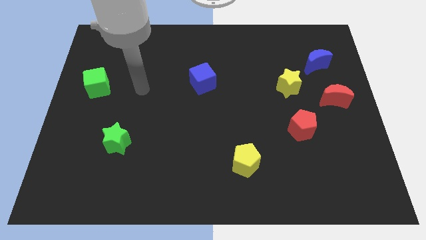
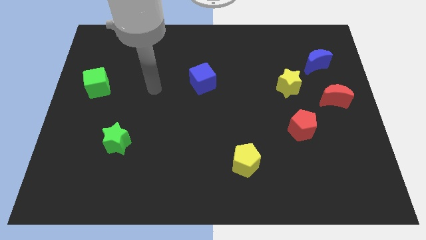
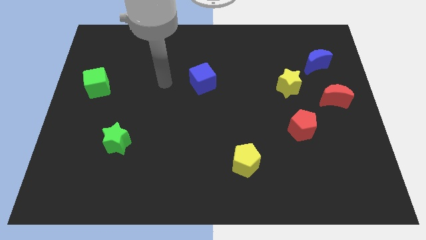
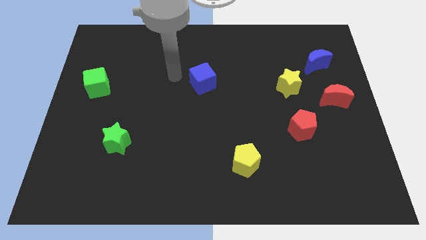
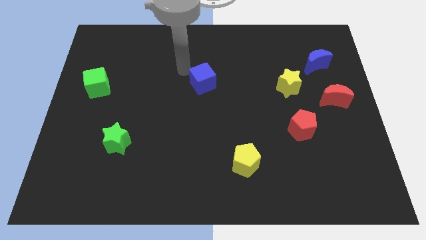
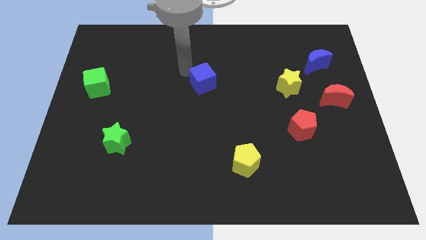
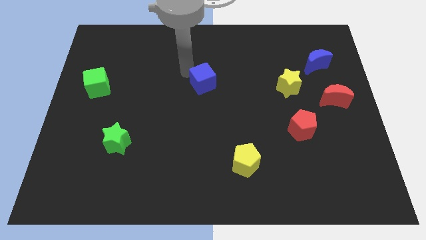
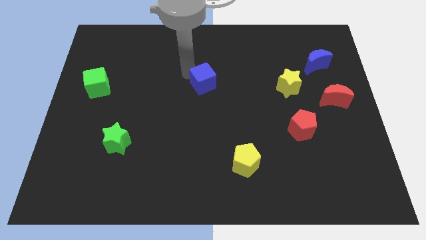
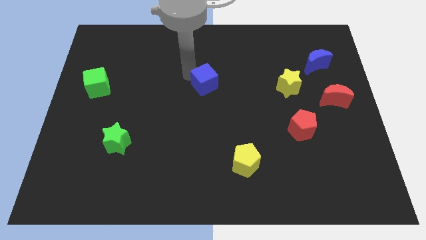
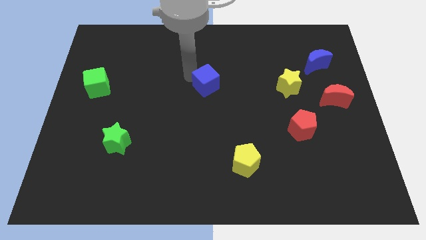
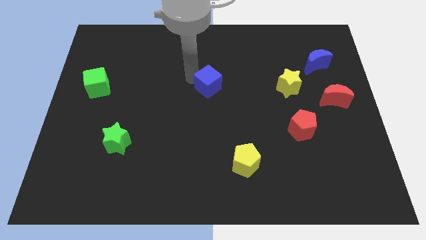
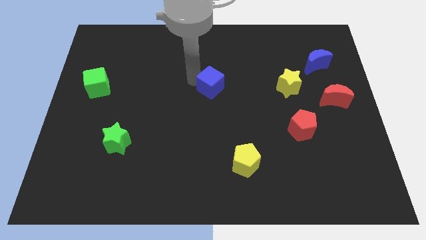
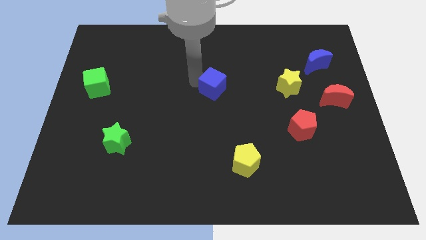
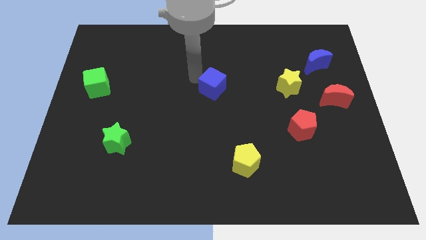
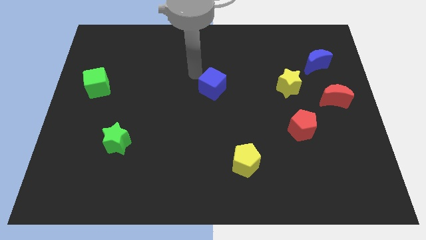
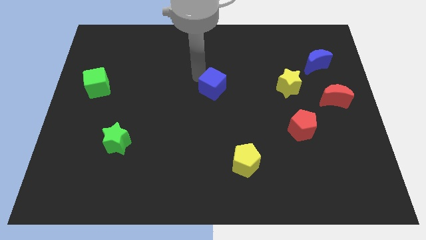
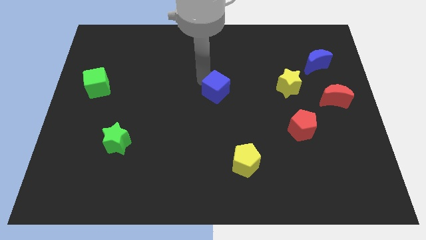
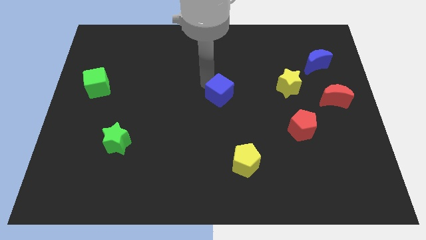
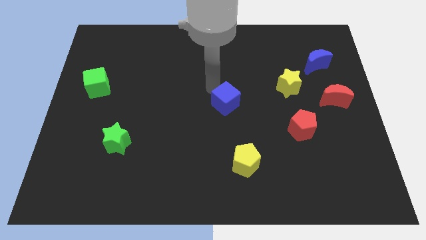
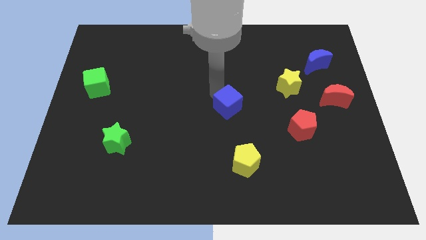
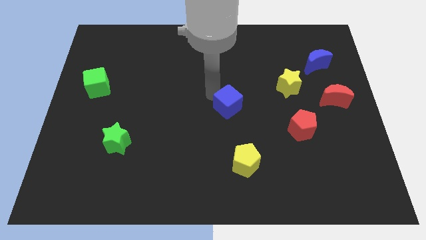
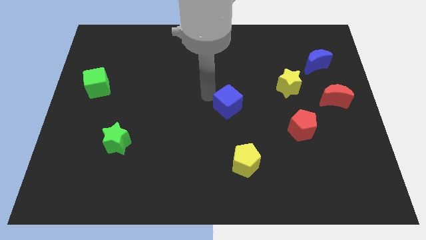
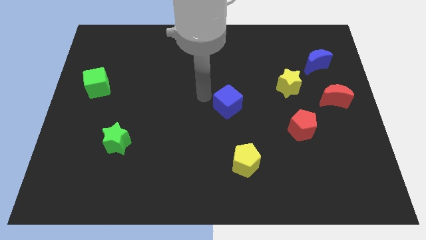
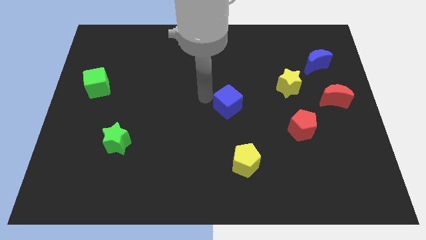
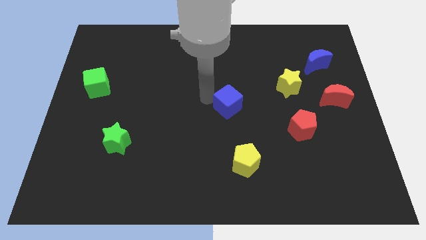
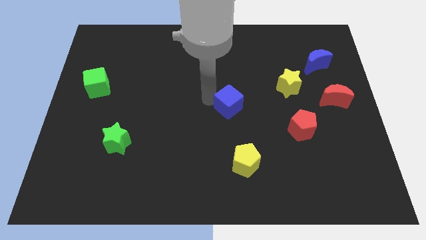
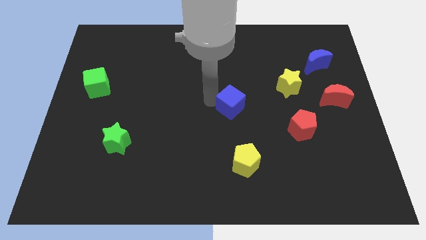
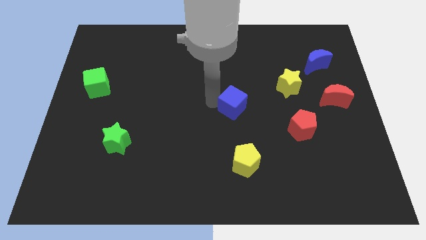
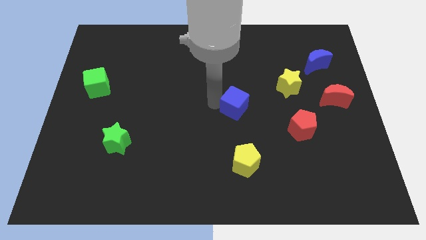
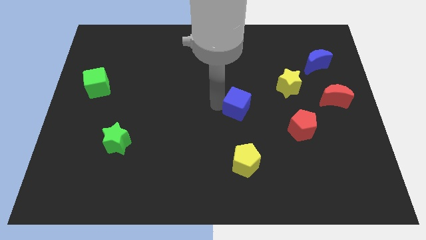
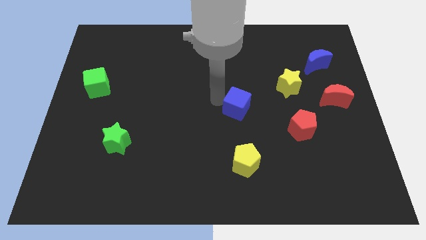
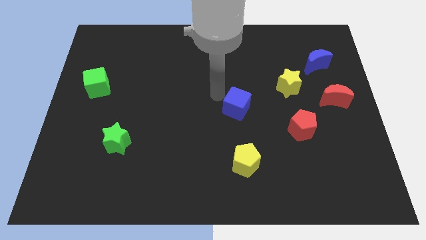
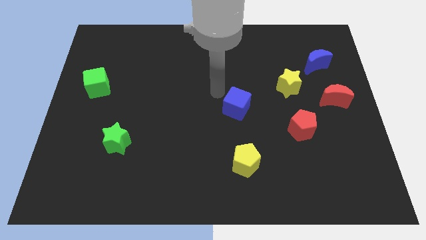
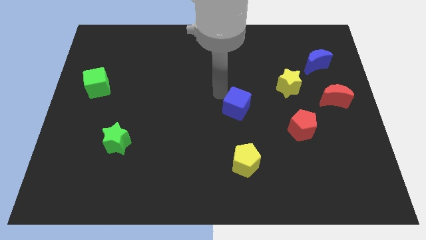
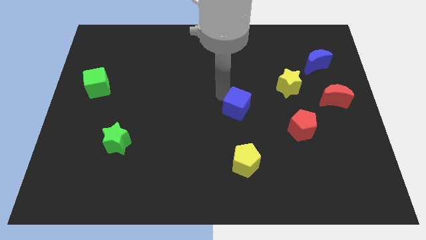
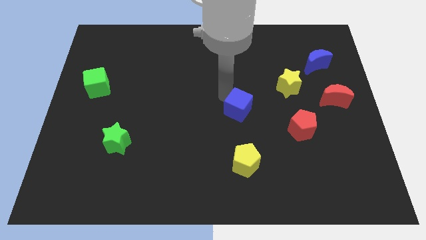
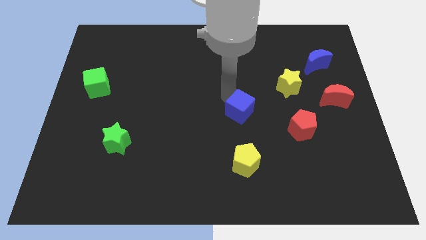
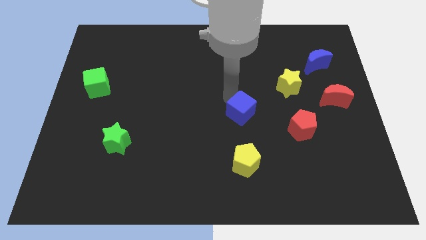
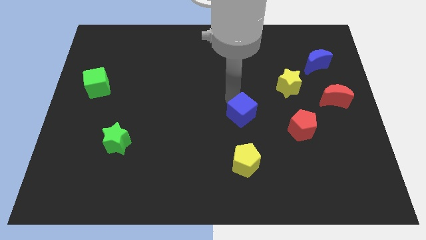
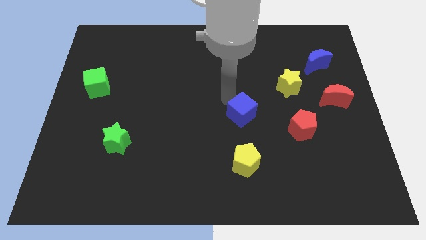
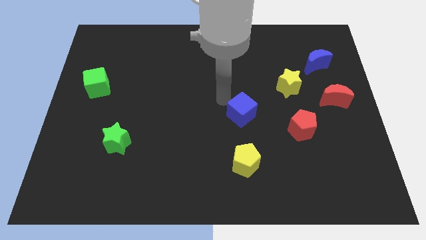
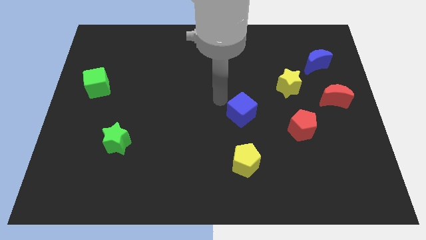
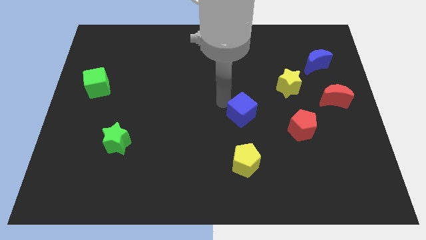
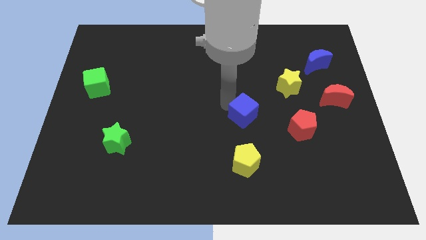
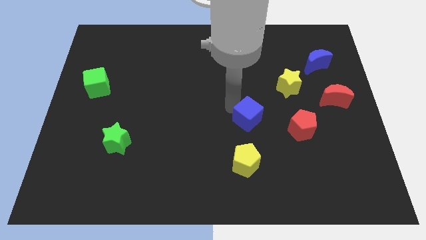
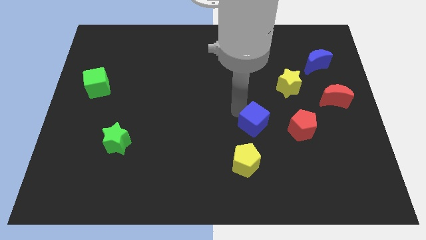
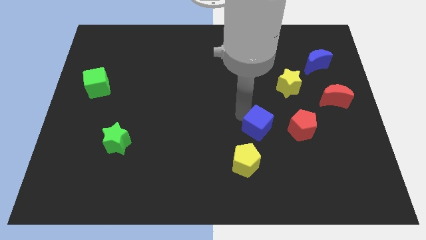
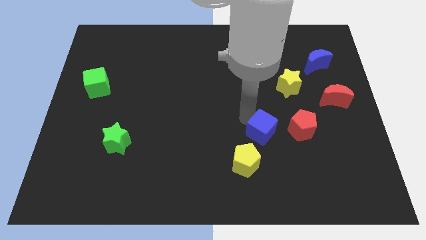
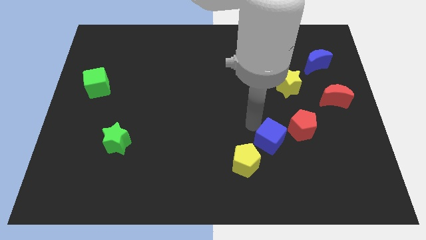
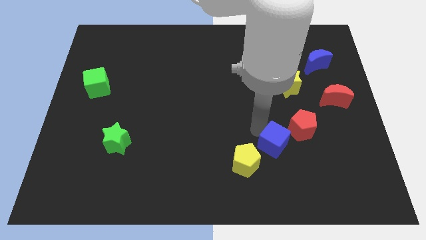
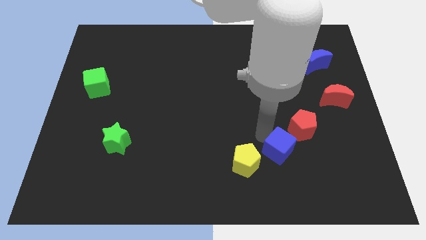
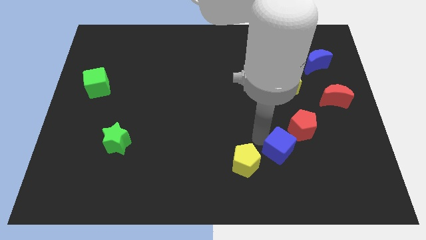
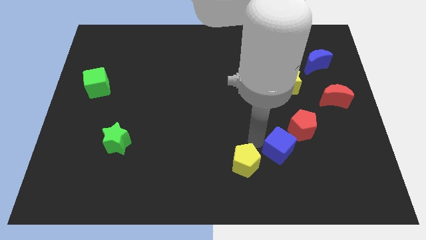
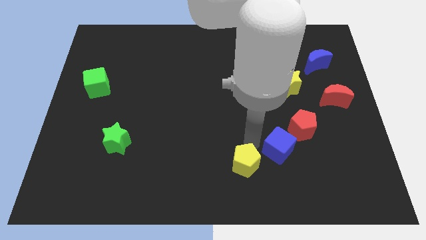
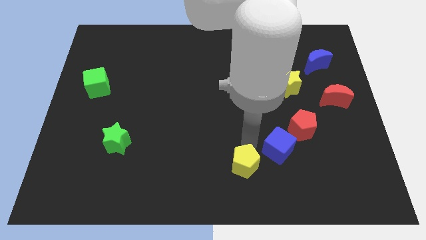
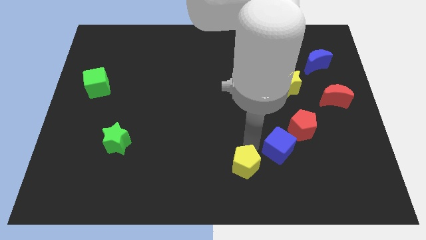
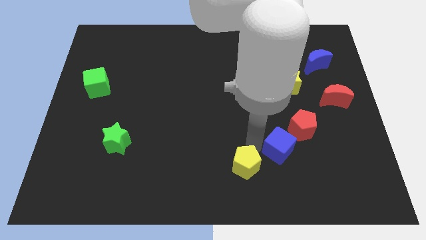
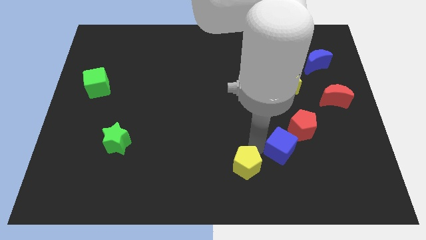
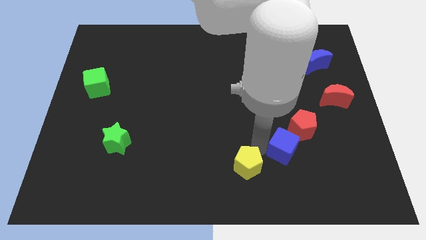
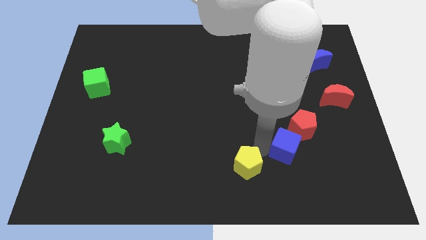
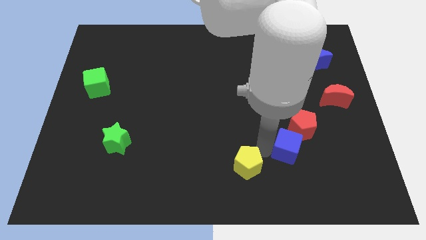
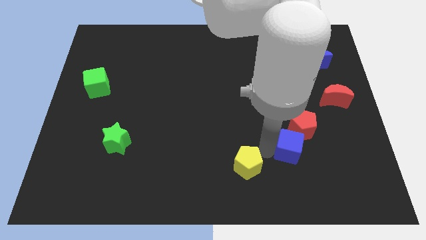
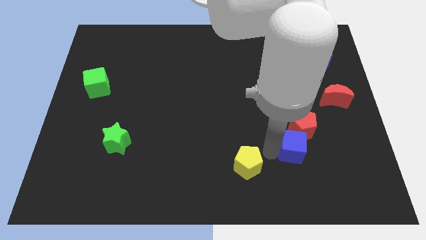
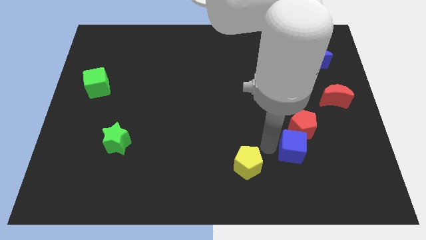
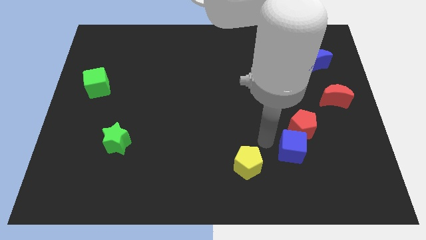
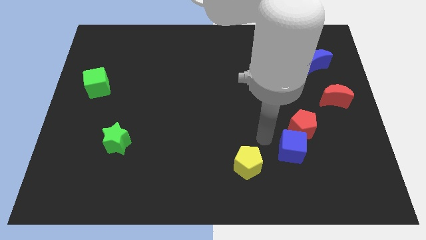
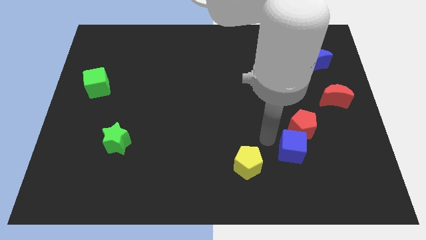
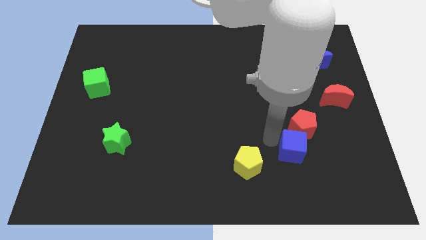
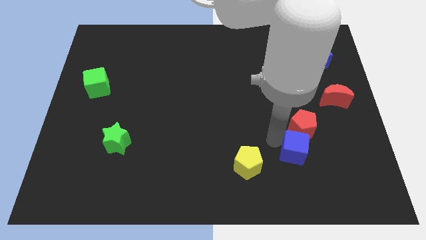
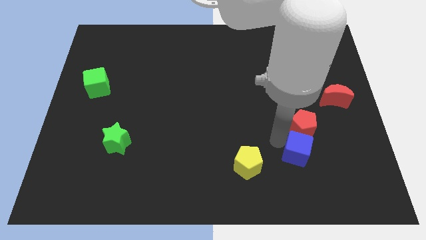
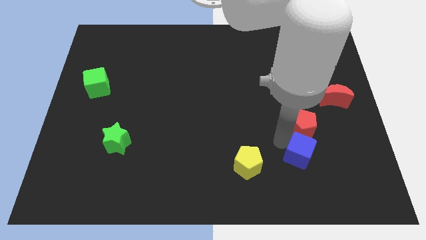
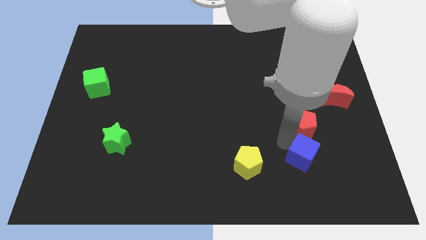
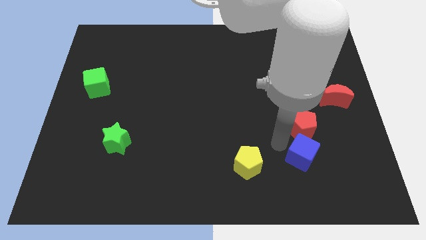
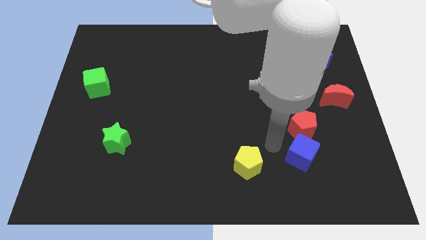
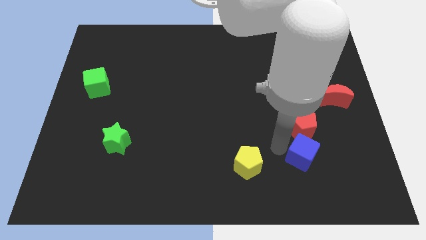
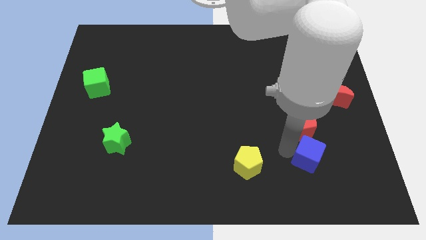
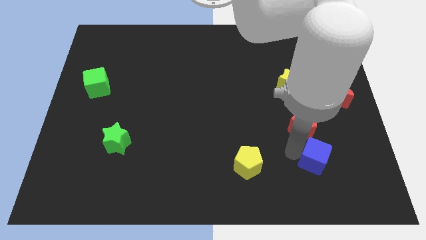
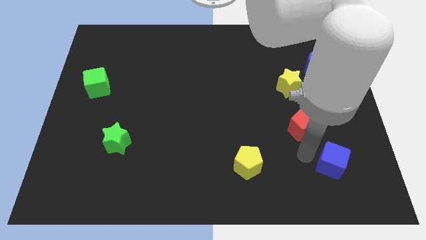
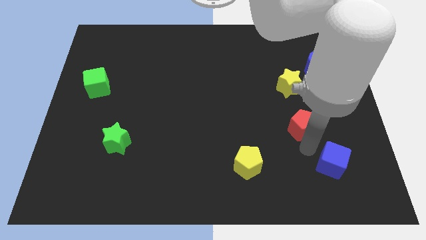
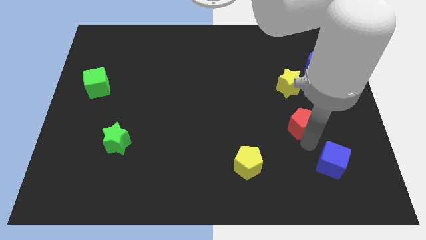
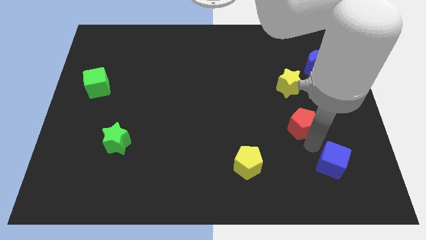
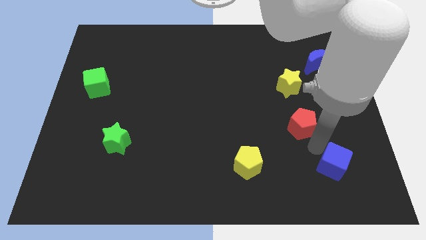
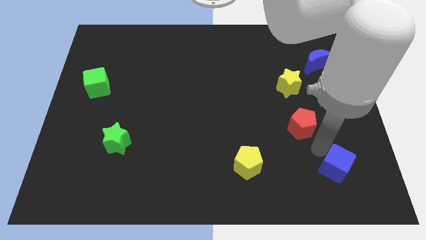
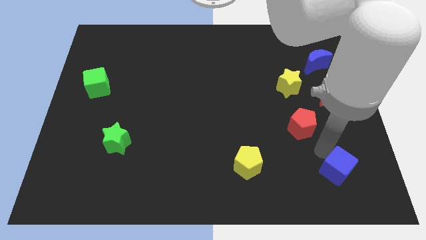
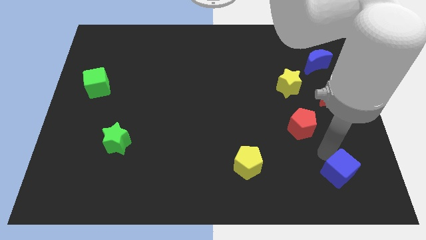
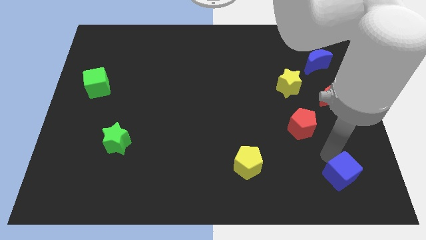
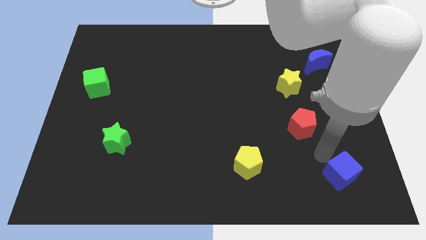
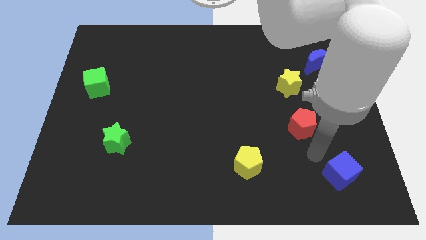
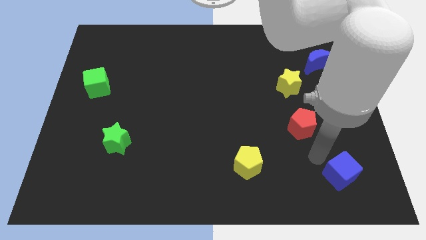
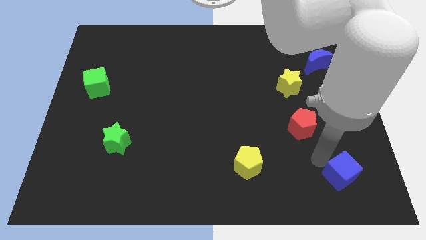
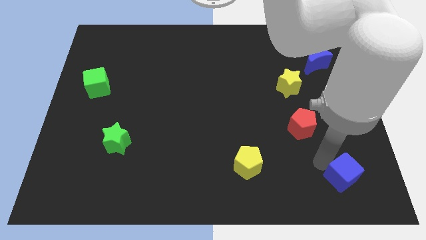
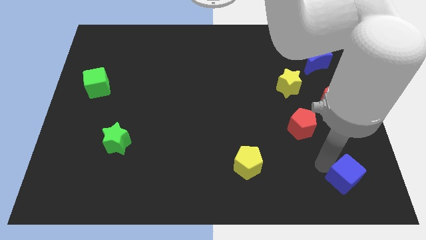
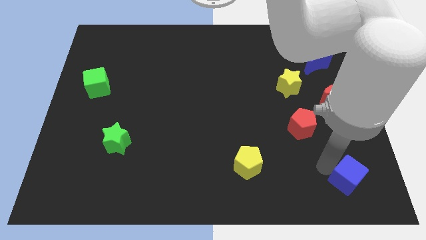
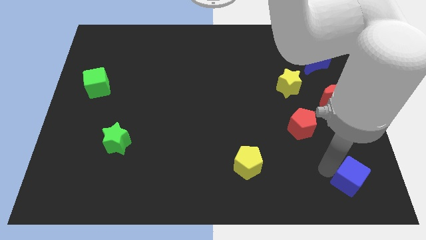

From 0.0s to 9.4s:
move the blue cube to the lower right corner
